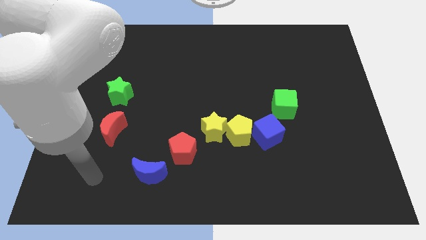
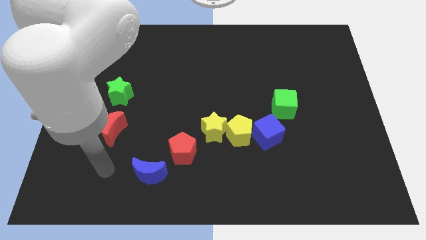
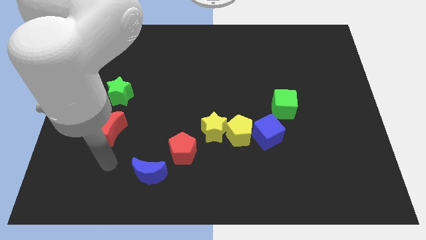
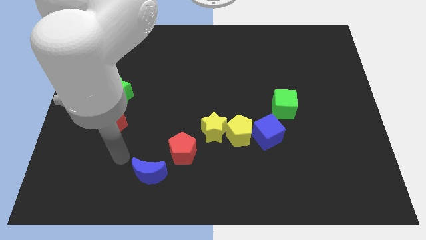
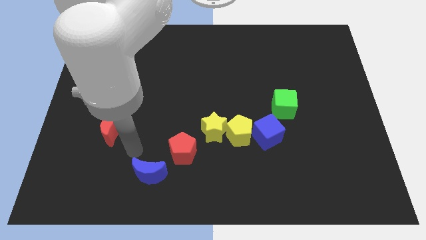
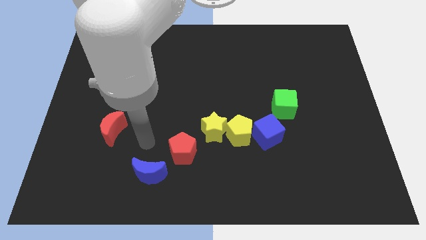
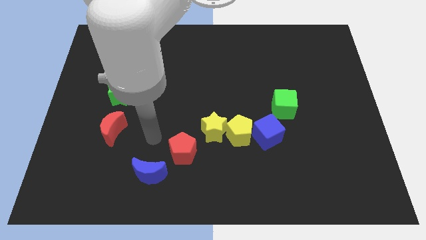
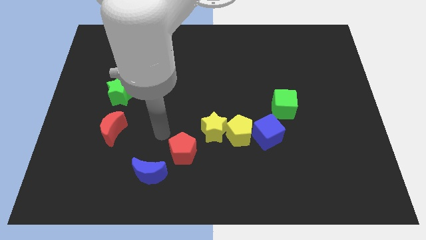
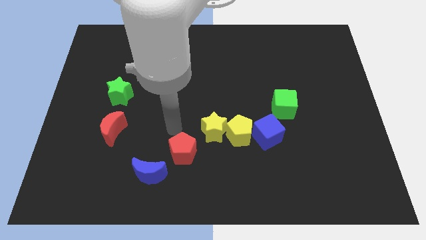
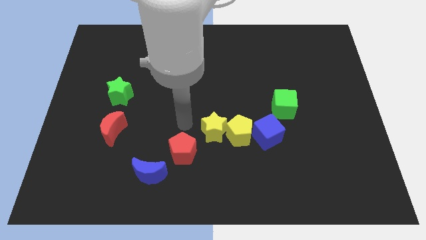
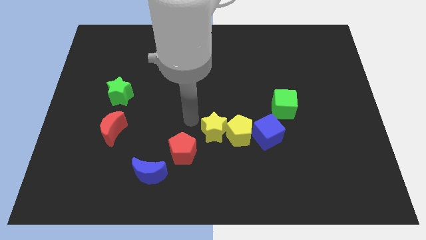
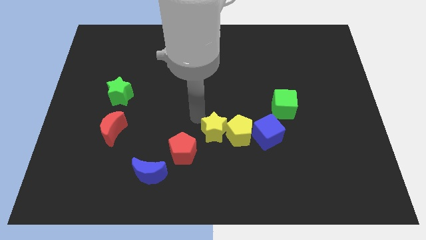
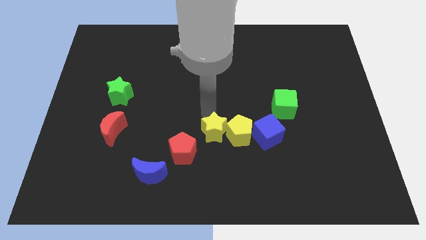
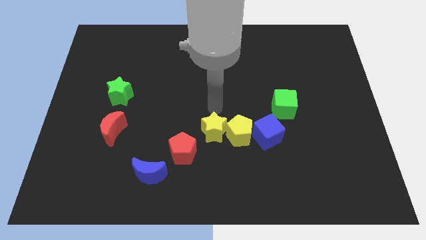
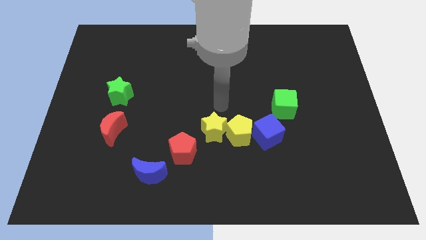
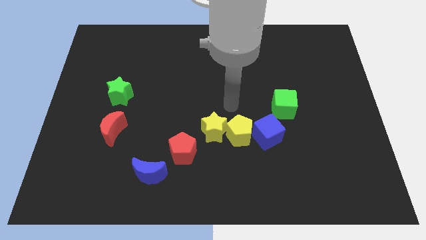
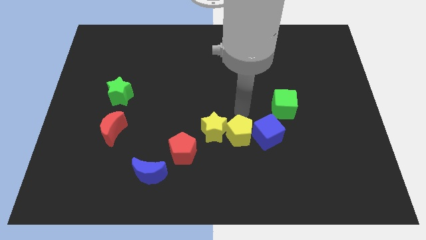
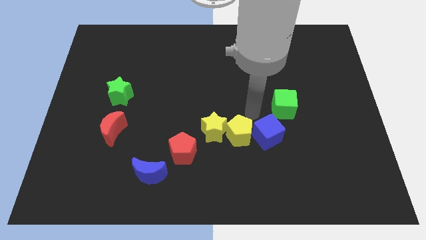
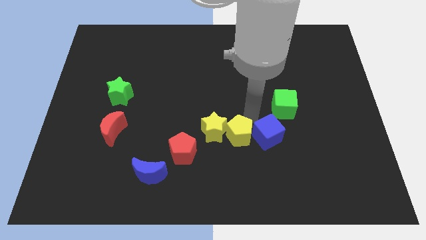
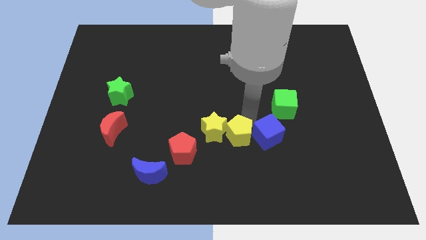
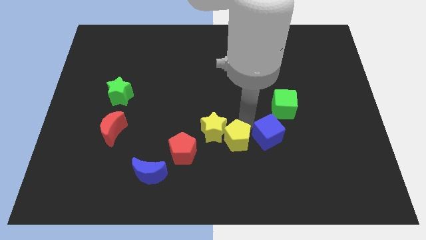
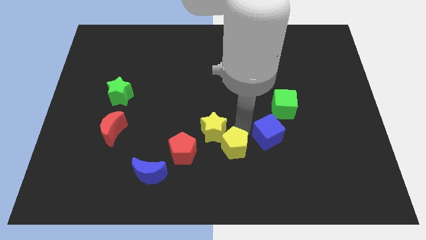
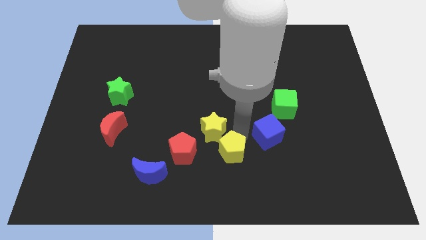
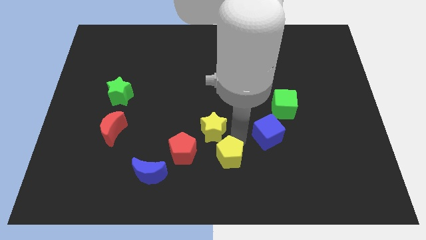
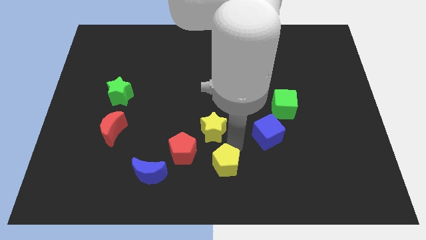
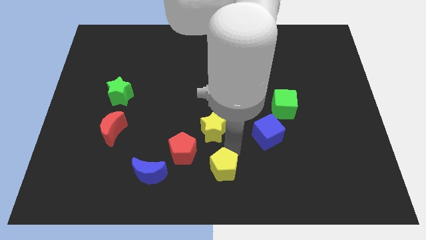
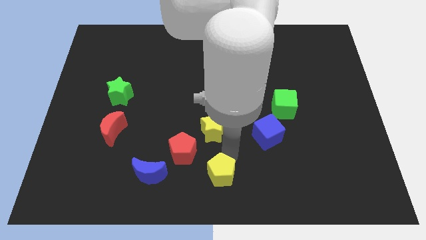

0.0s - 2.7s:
pull the yellow pentagon apart from the yellow star and blue cube

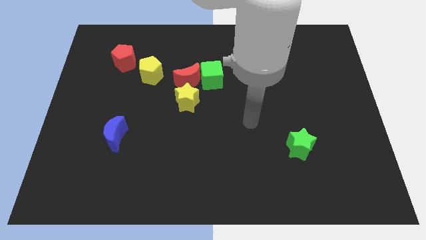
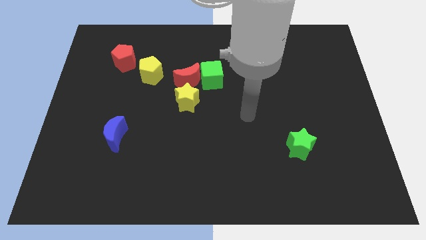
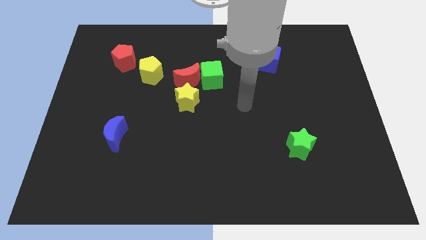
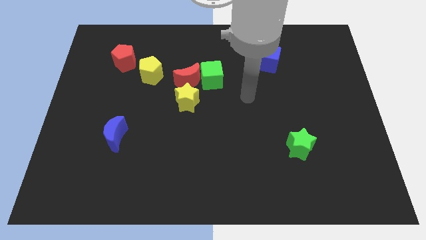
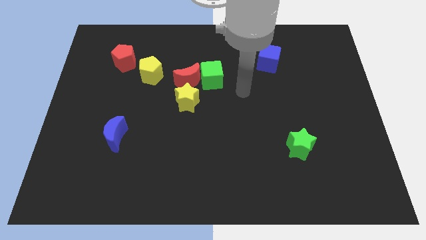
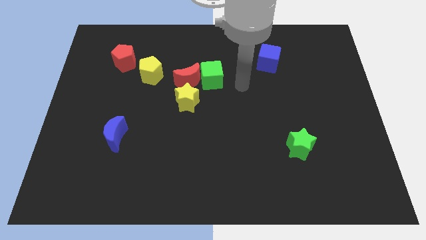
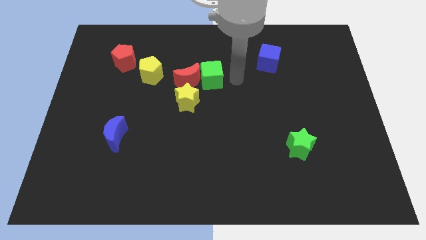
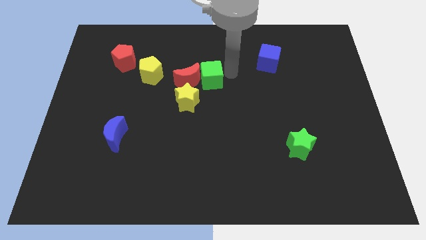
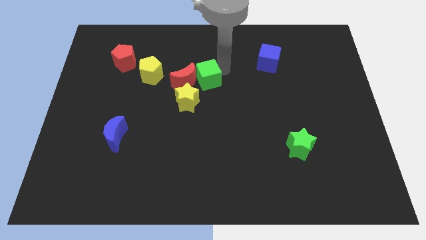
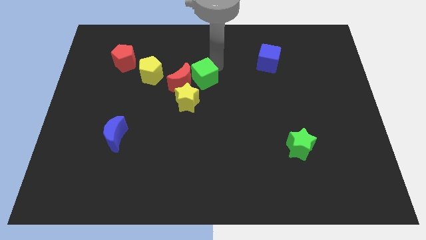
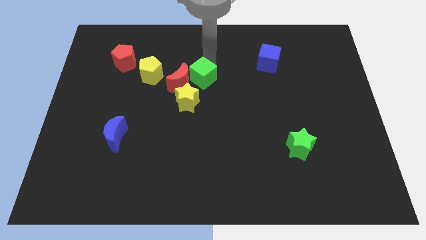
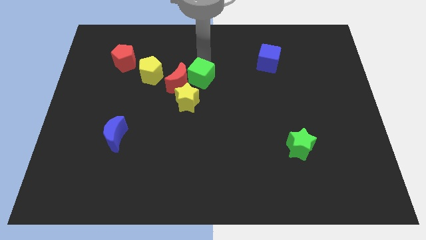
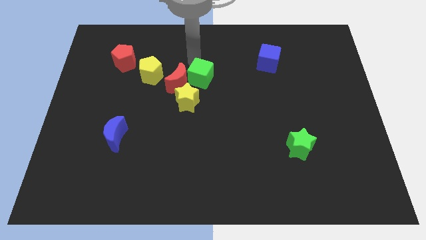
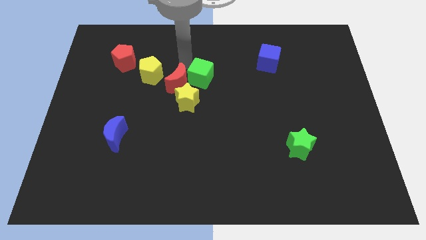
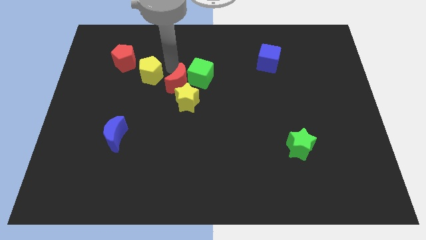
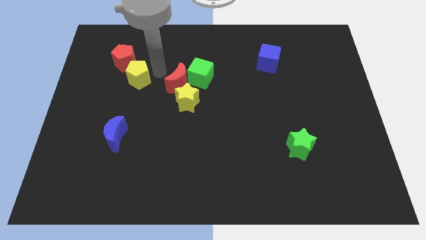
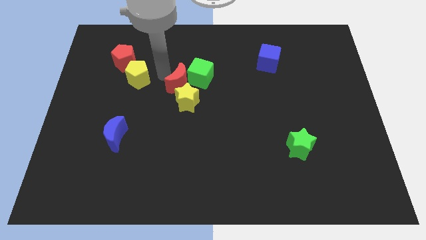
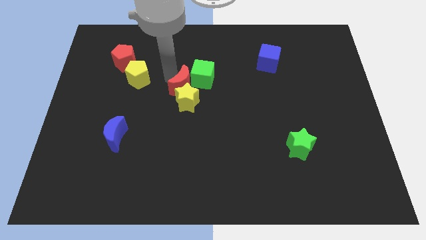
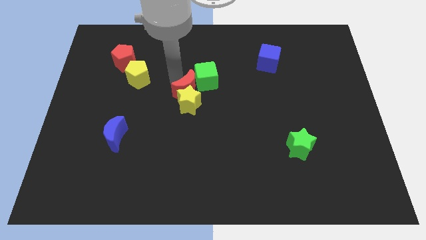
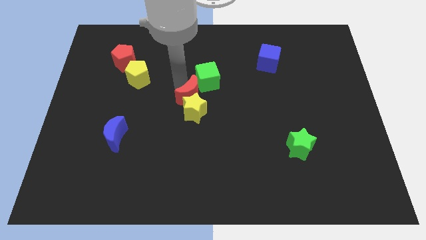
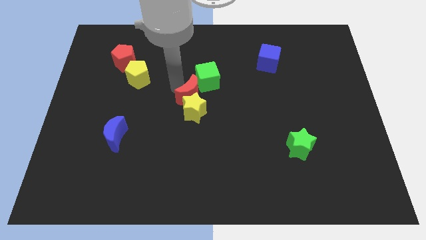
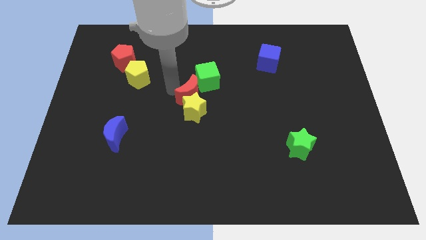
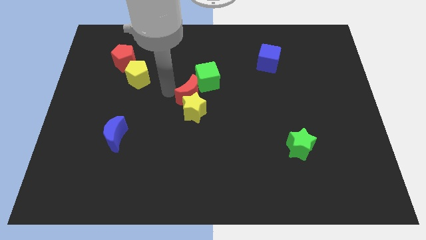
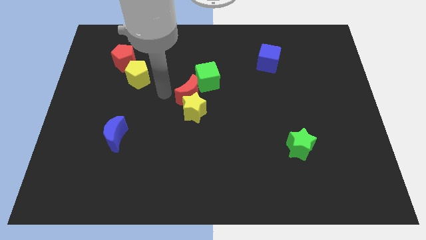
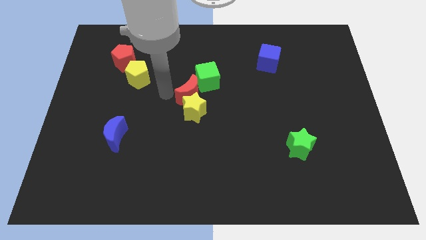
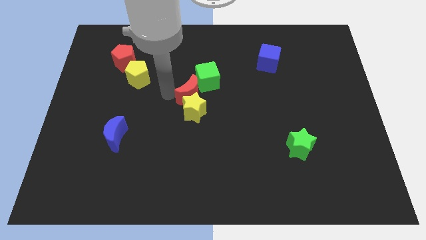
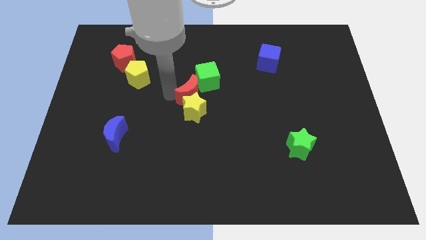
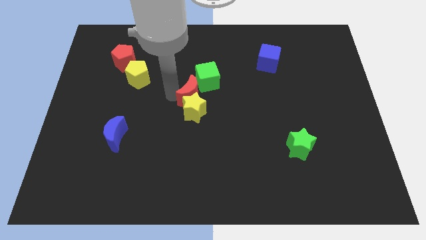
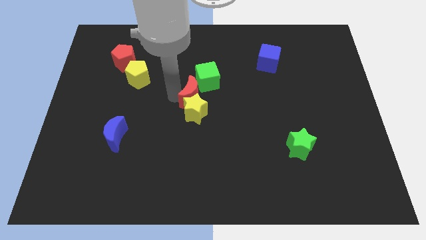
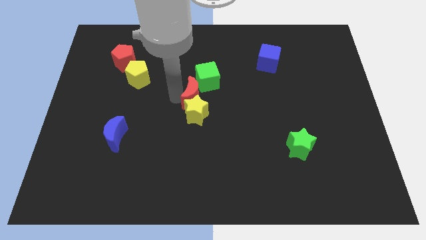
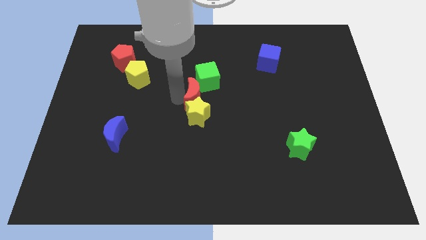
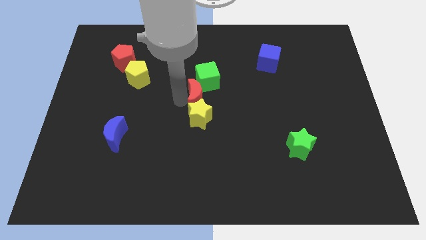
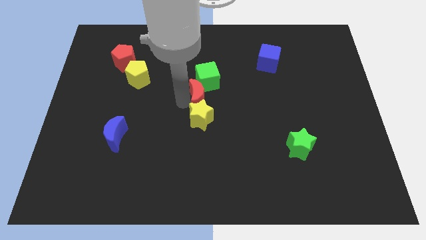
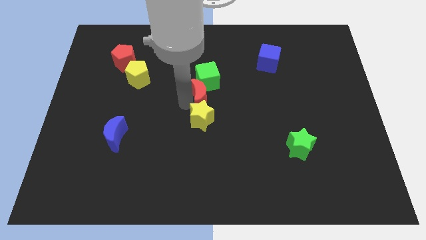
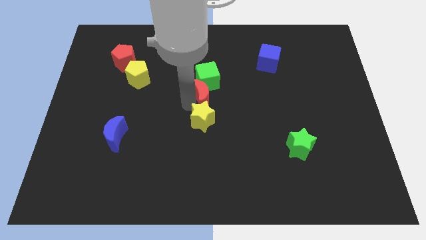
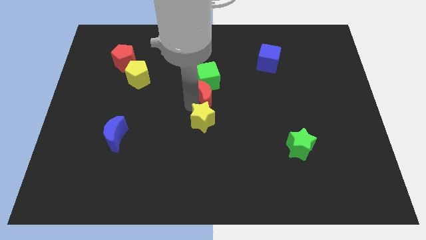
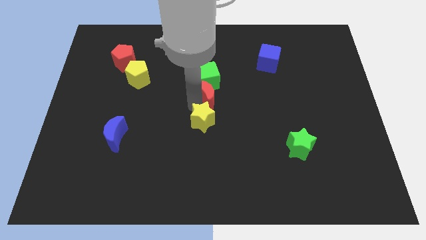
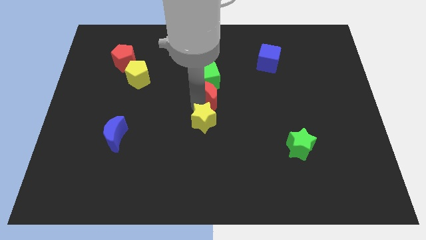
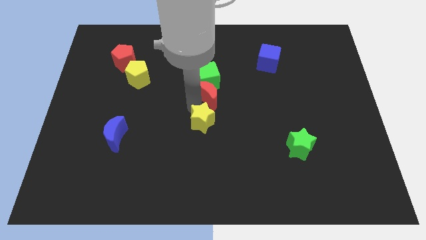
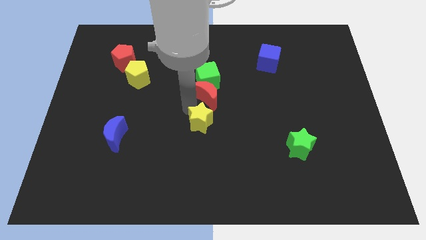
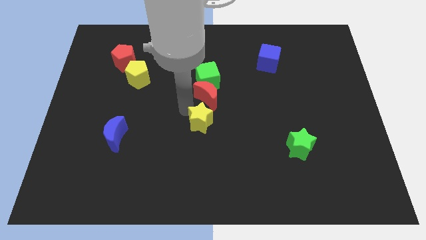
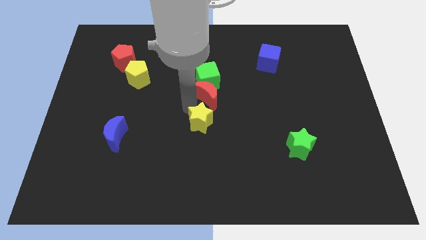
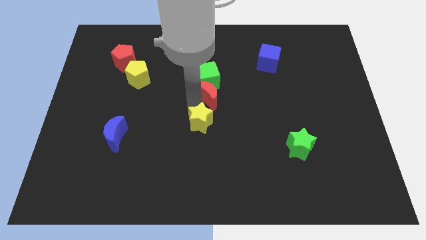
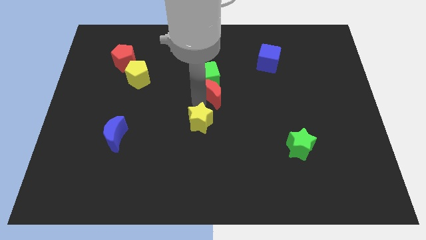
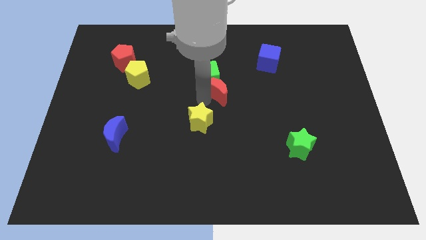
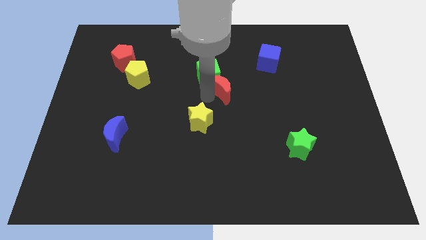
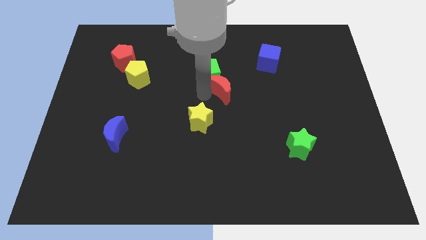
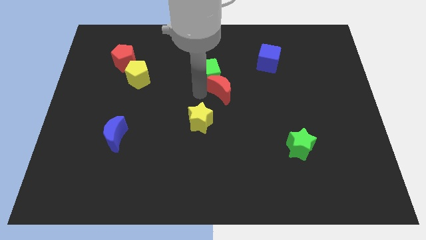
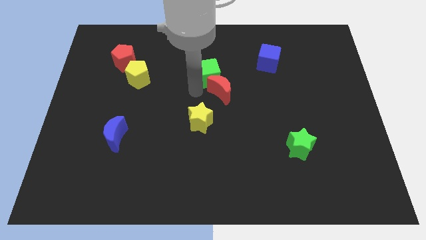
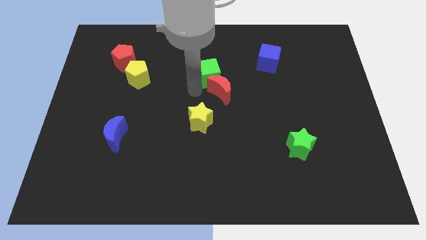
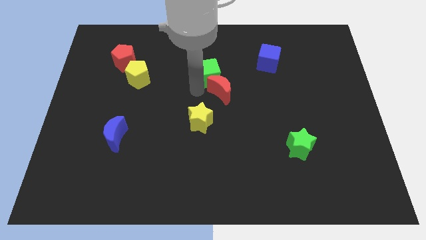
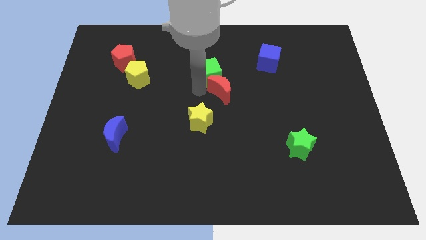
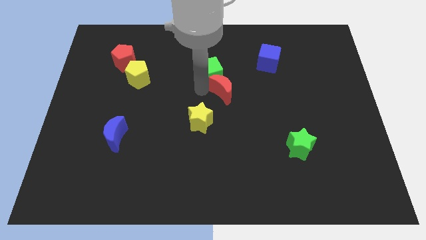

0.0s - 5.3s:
move the red moon away from the green cube, yellow star, and yellow pentagon

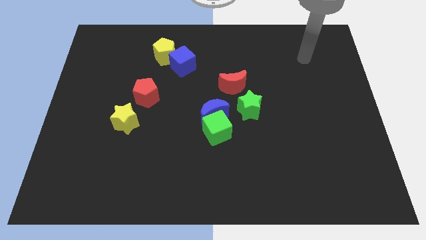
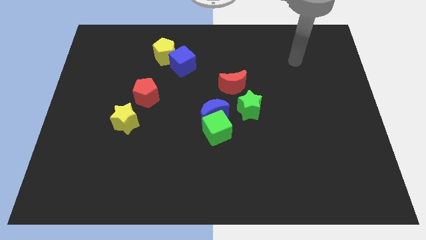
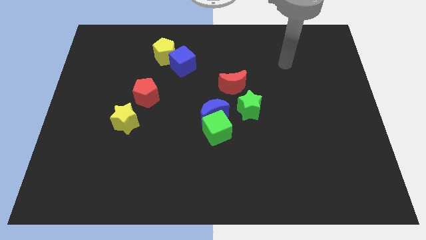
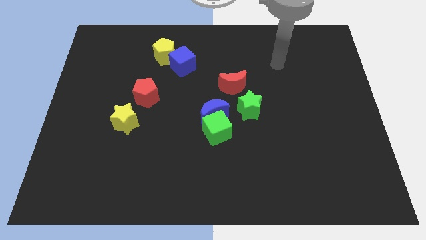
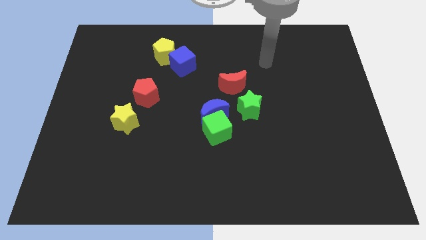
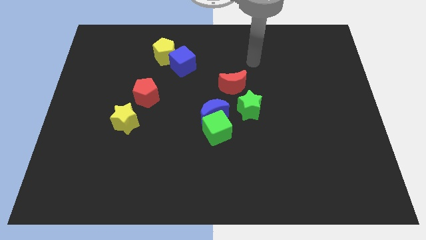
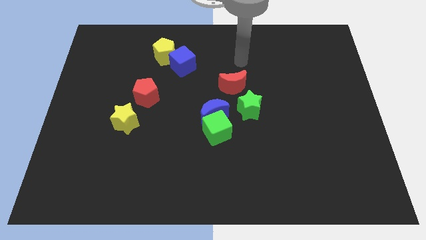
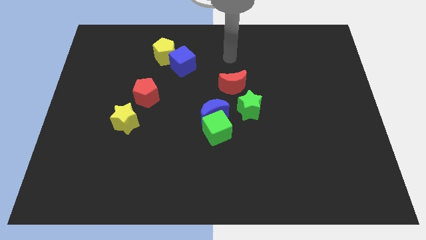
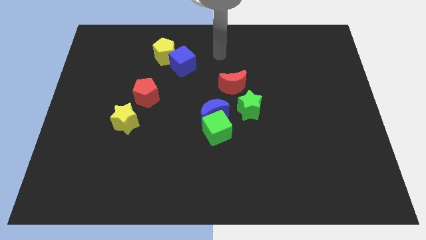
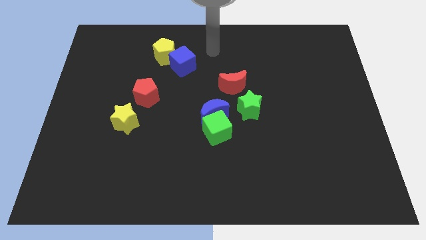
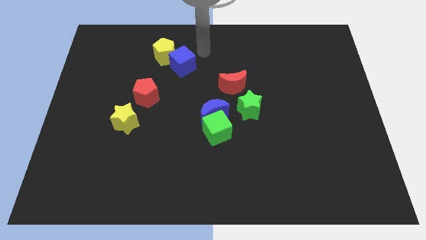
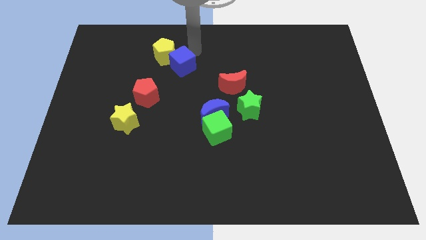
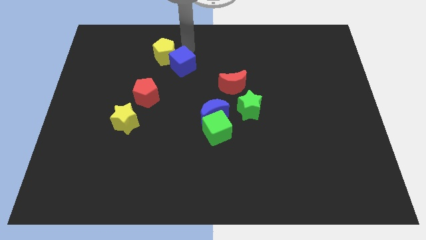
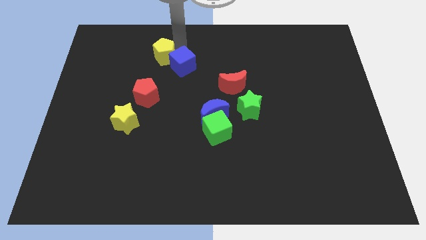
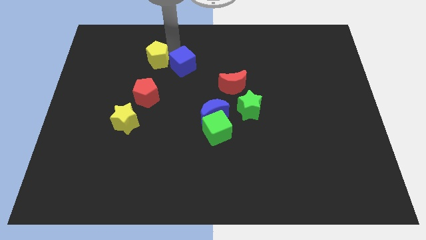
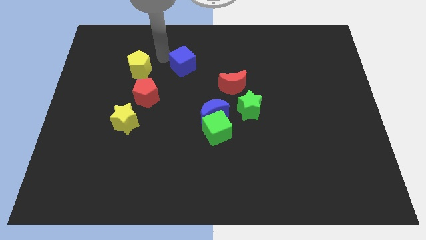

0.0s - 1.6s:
pull the blue cube apart from the yellow pentagon
